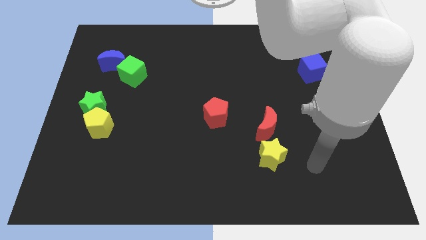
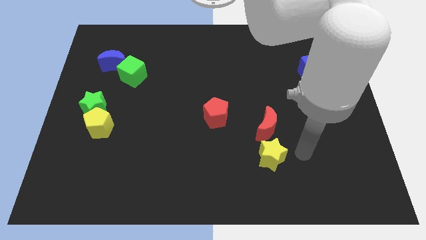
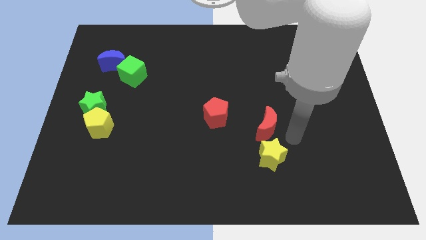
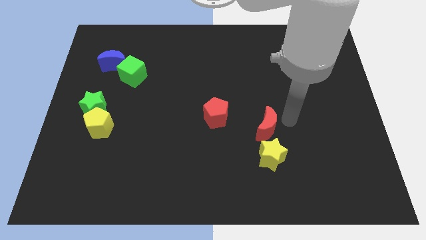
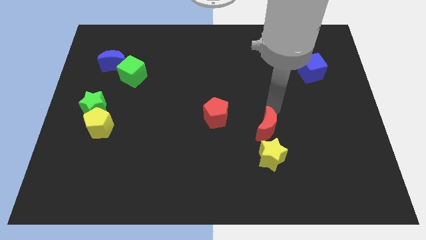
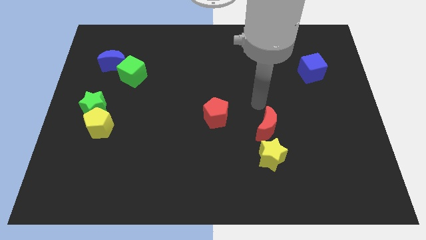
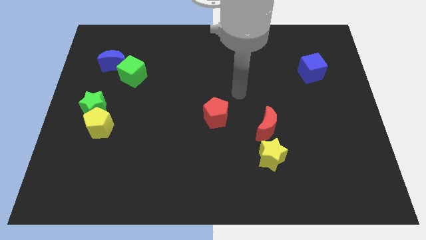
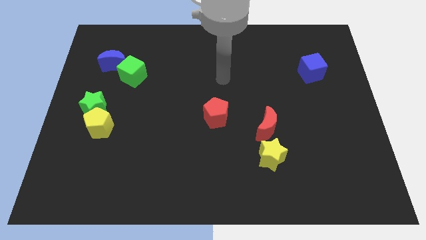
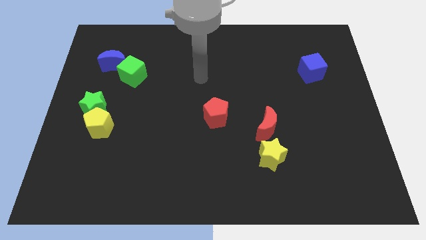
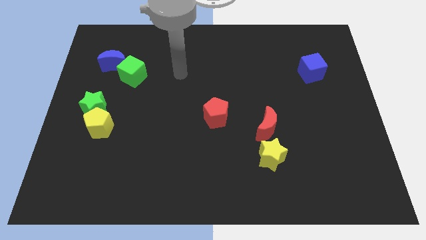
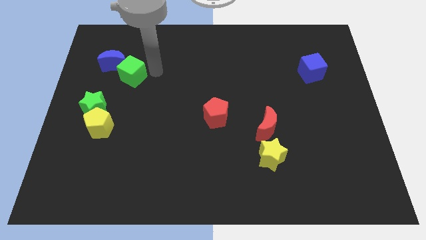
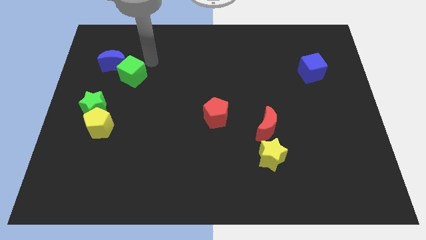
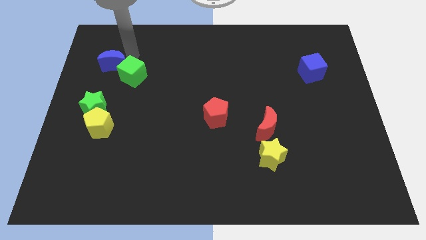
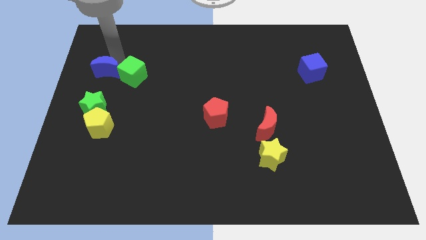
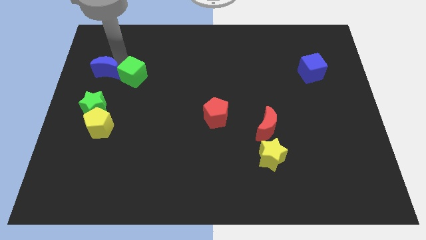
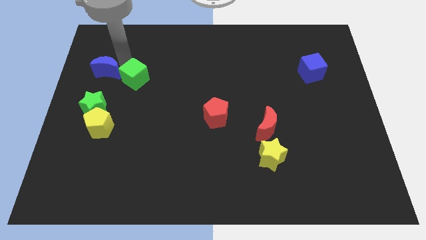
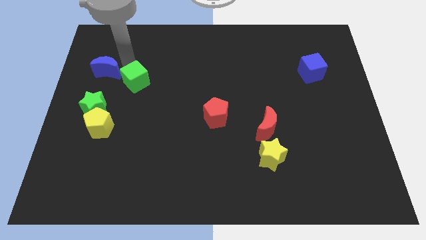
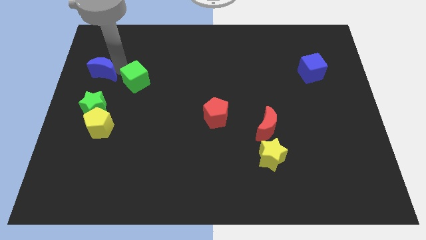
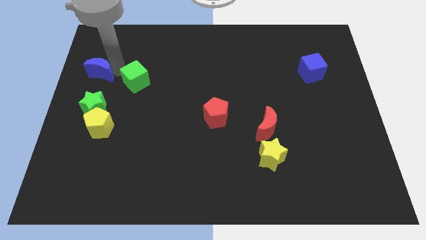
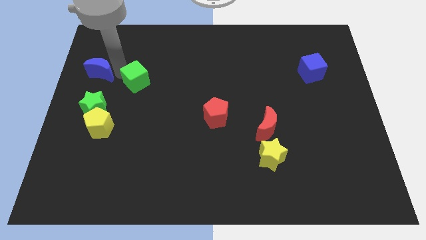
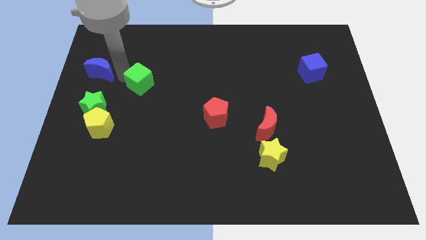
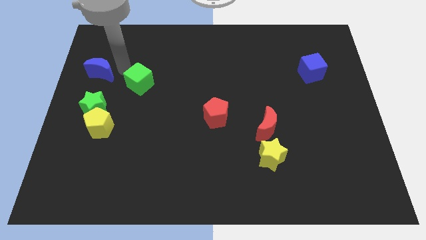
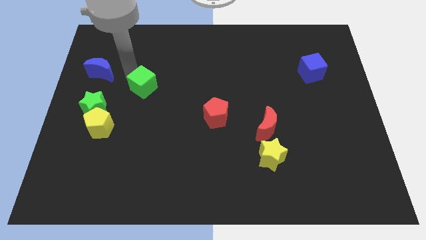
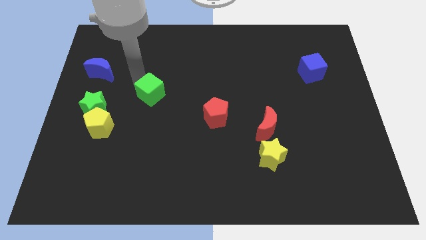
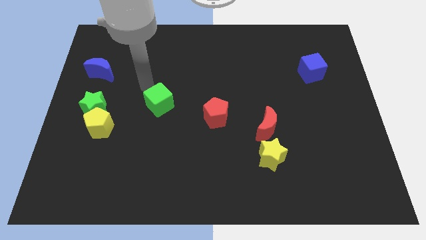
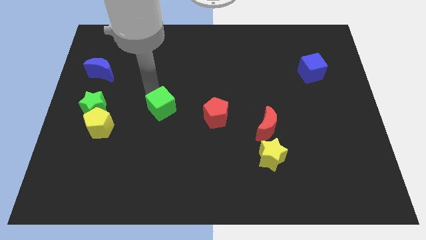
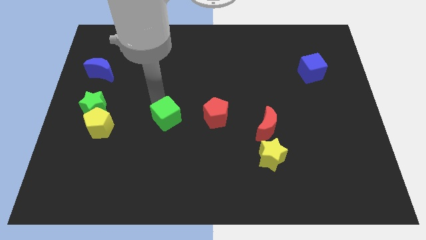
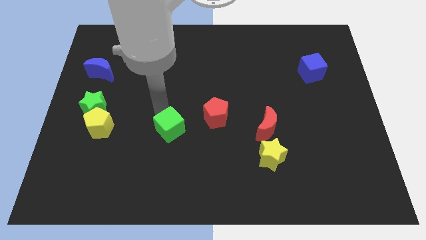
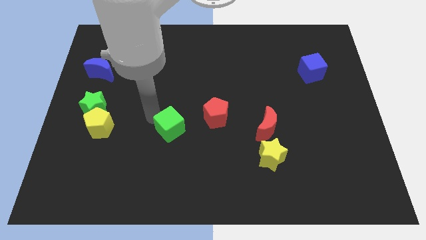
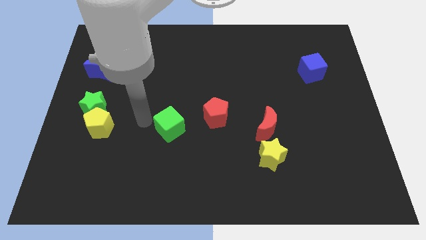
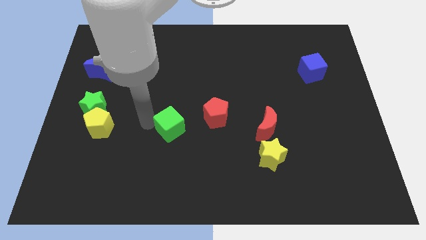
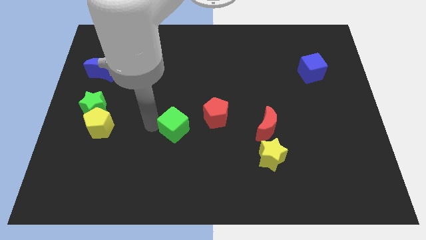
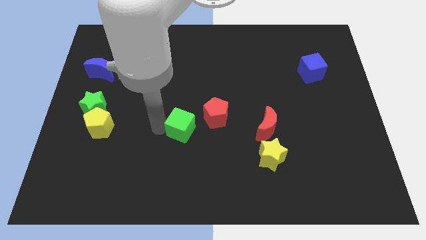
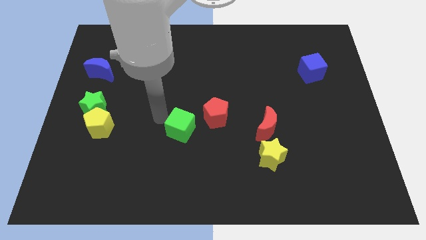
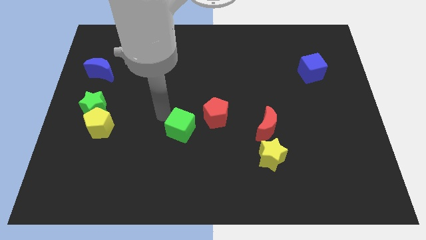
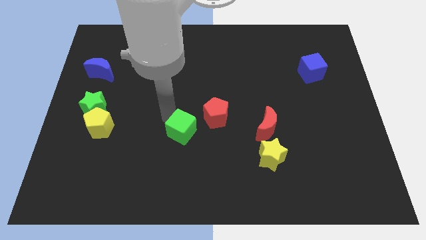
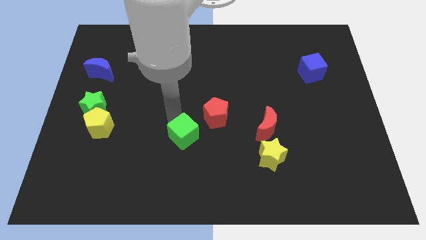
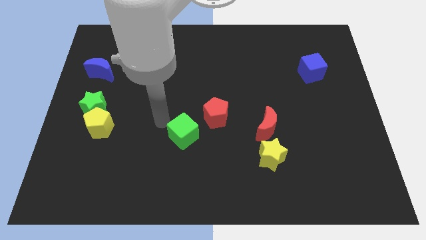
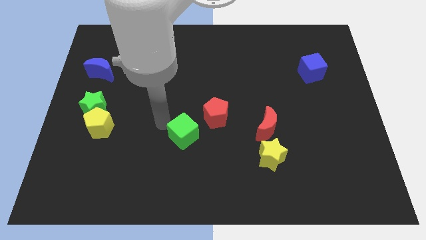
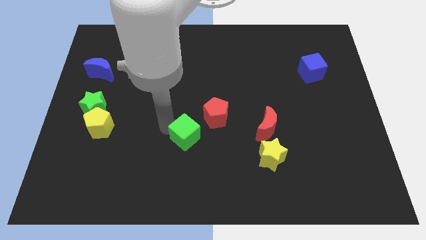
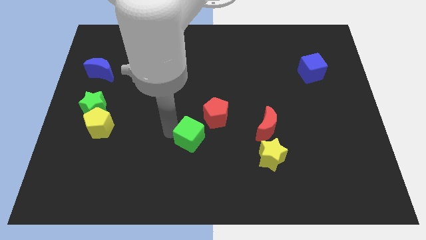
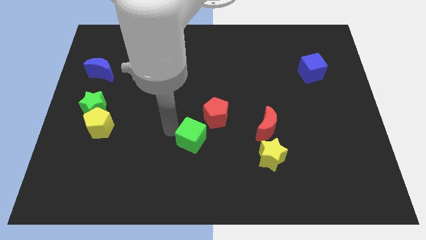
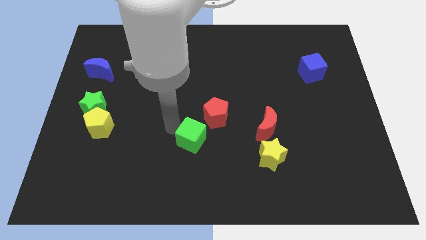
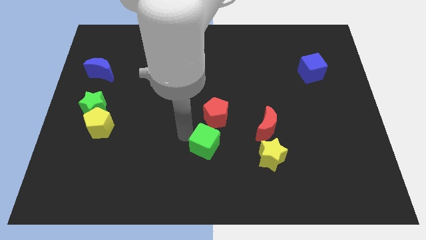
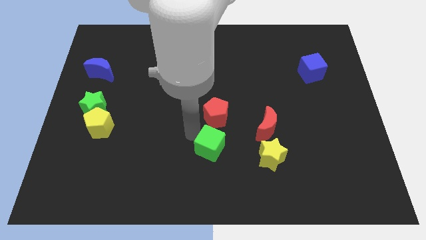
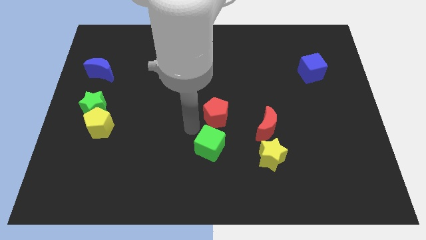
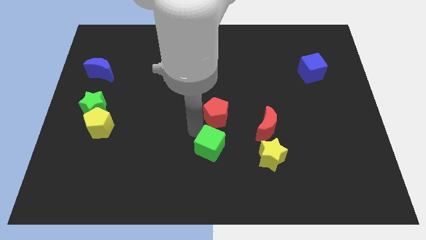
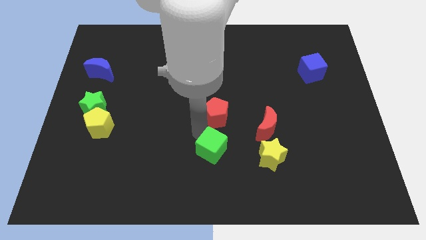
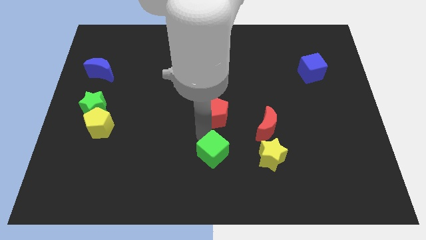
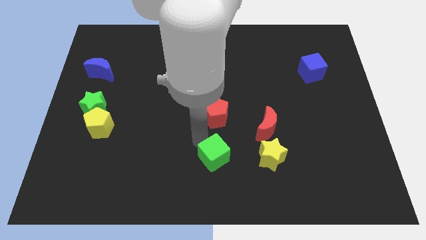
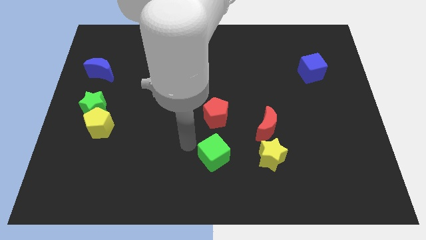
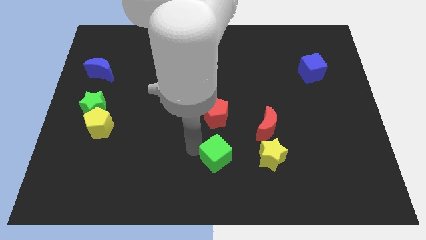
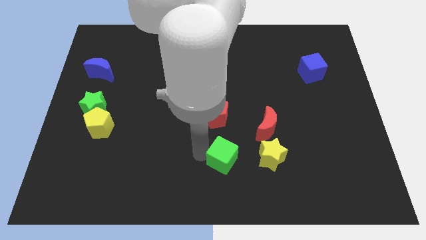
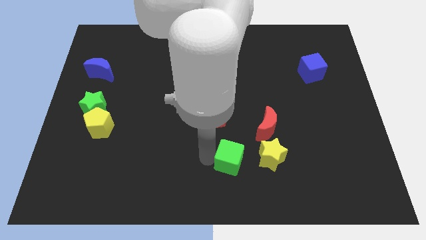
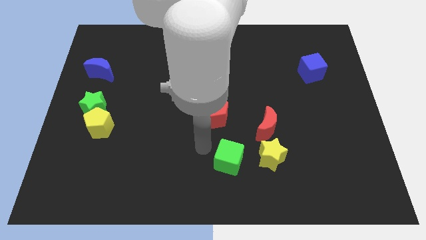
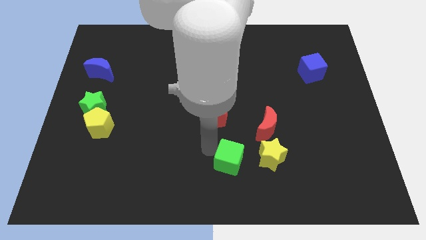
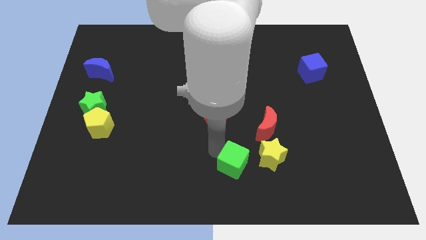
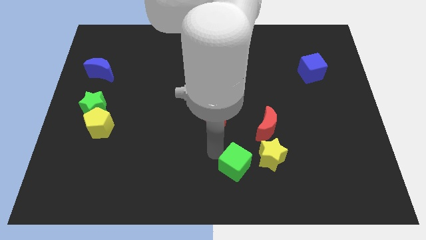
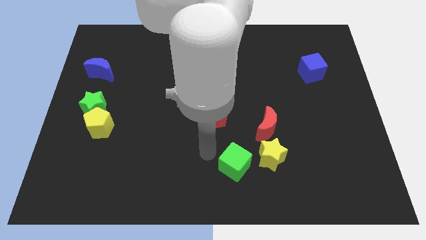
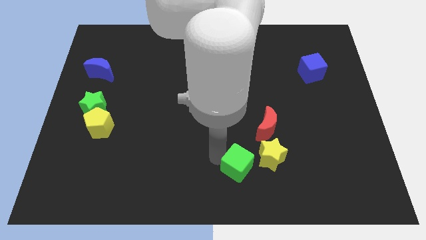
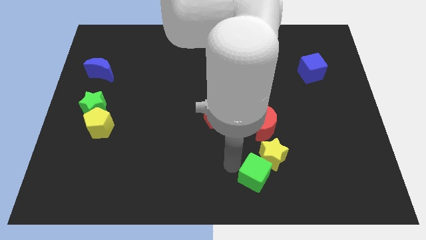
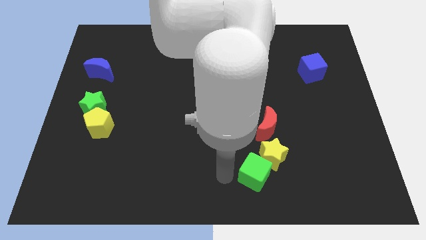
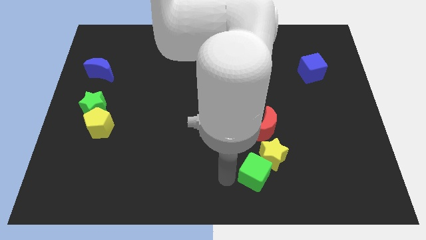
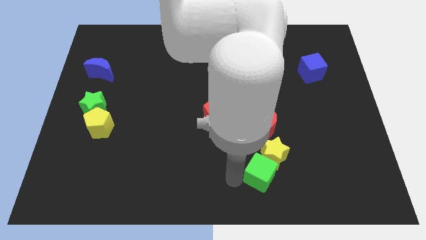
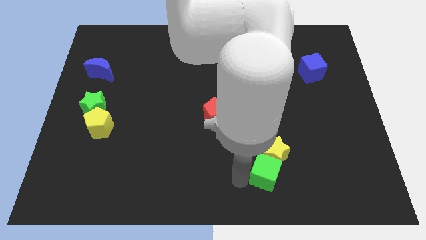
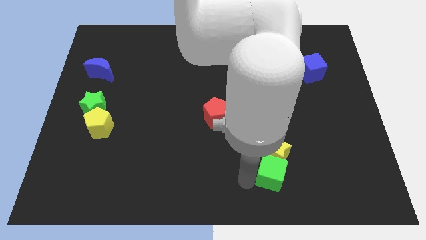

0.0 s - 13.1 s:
slide the green cube to the bottom right of the yellow star

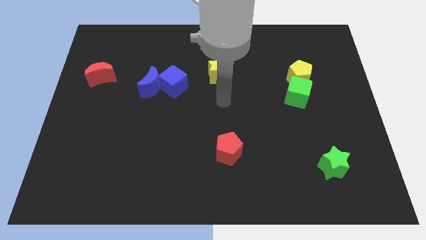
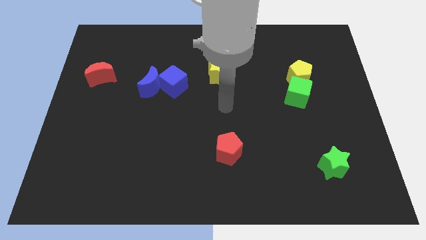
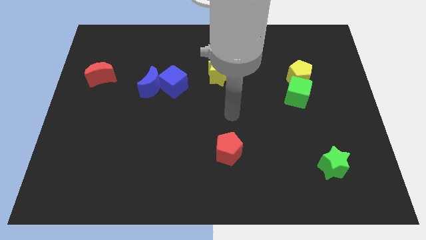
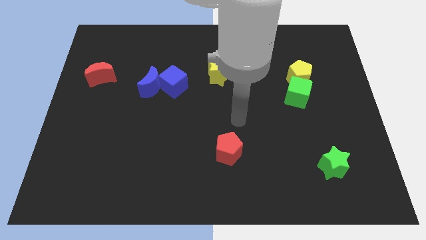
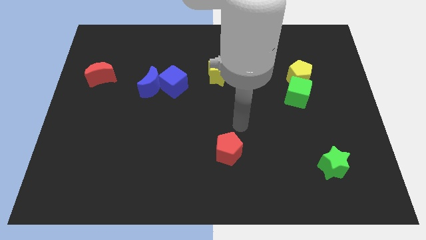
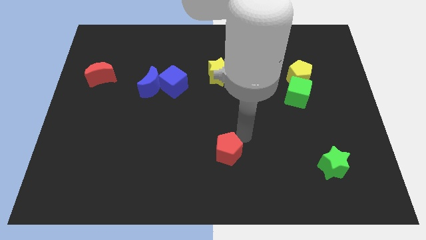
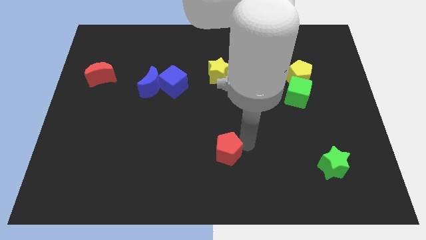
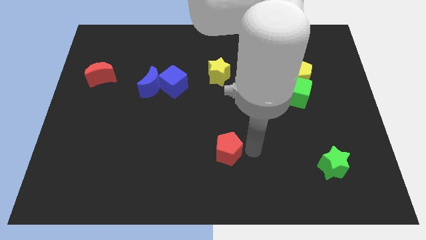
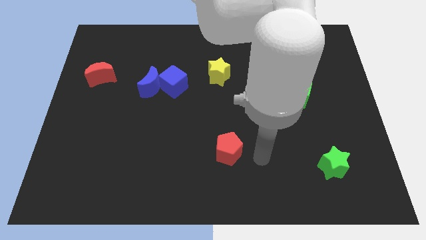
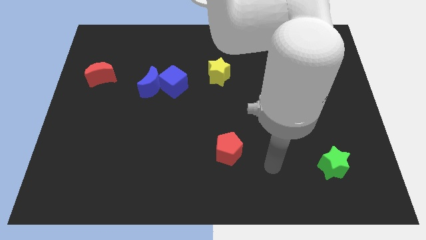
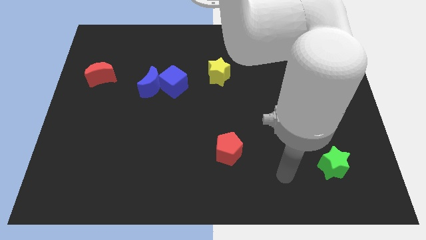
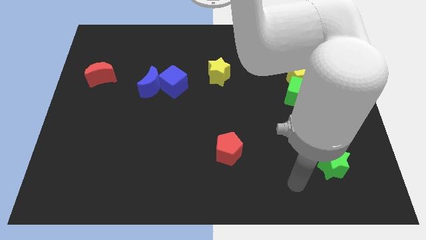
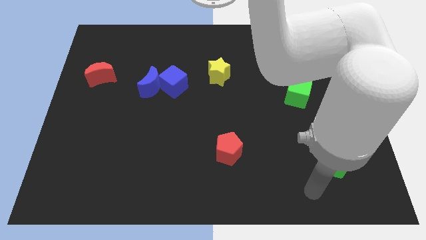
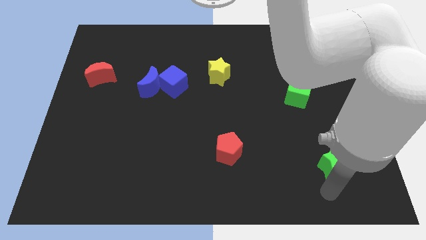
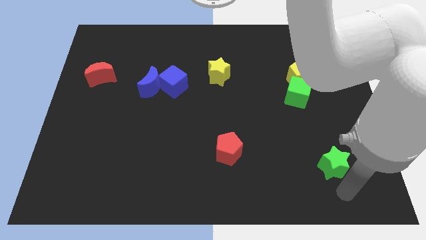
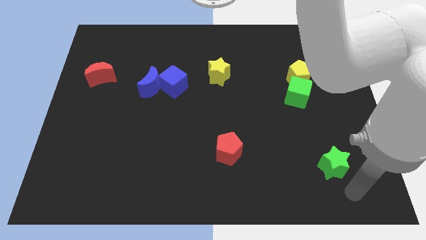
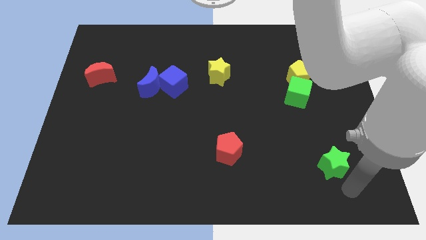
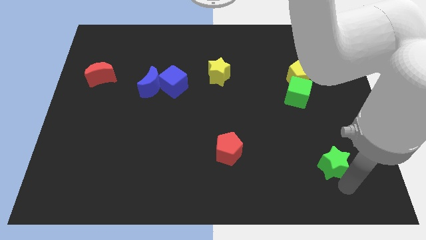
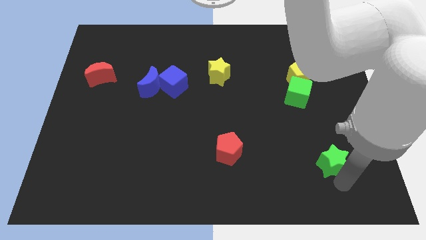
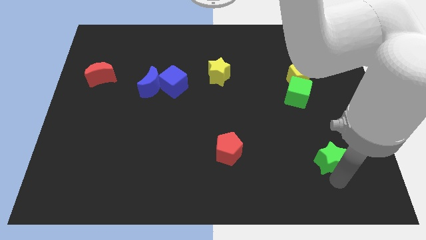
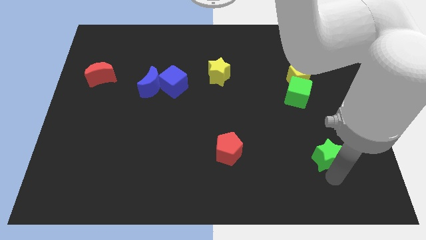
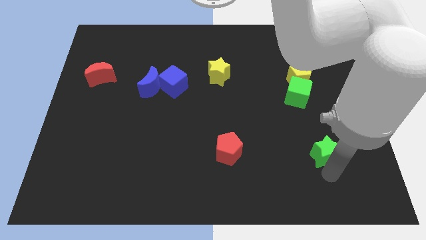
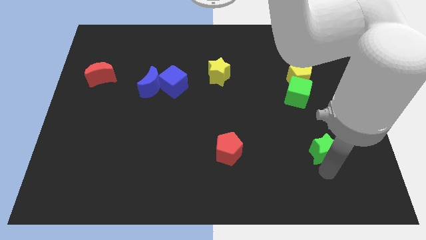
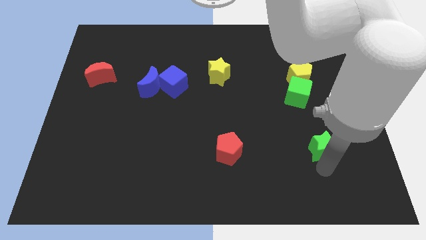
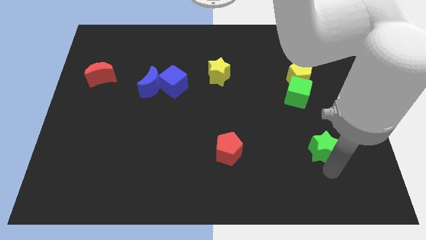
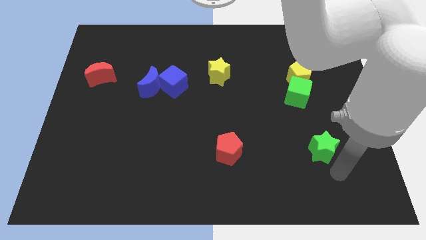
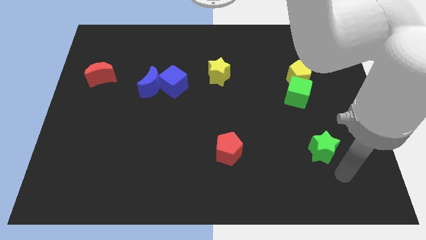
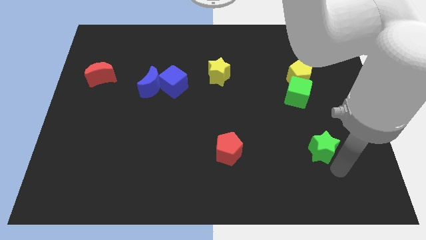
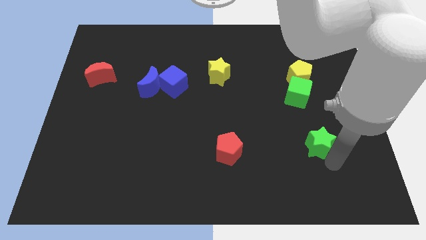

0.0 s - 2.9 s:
put the green star to the bottom side of the green cube
